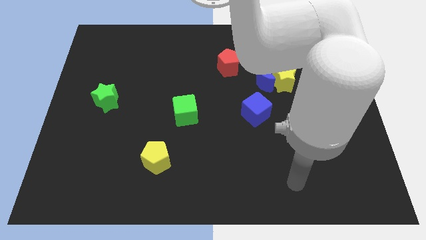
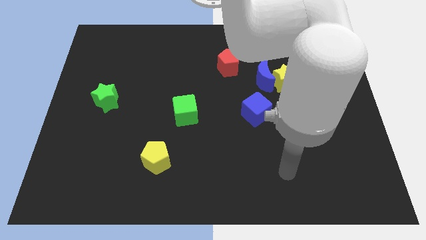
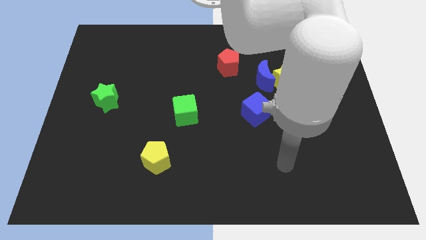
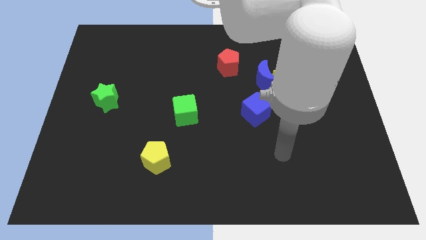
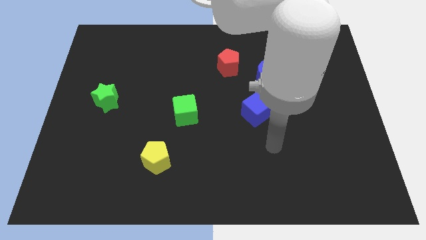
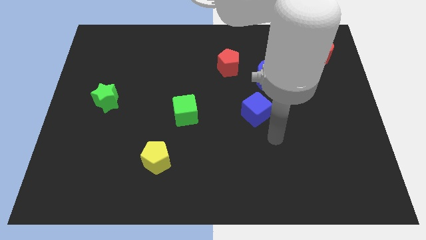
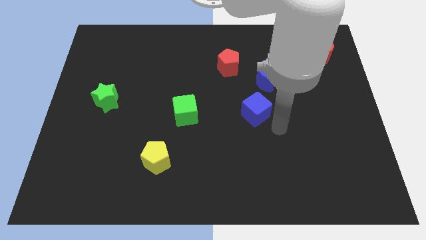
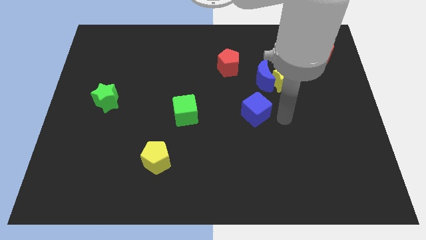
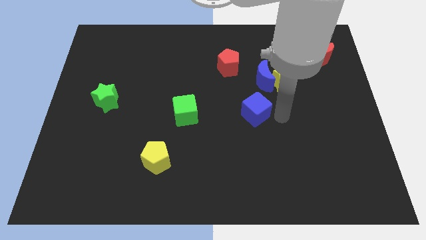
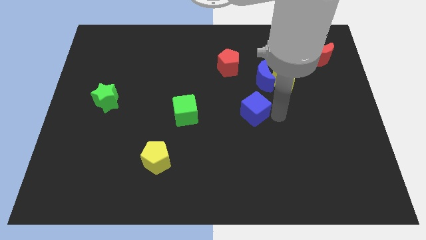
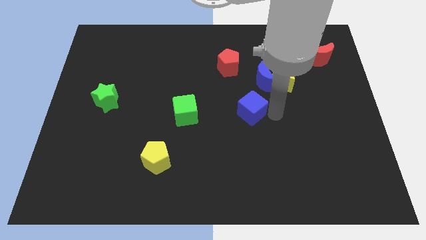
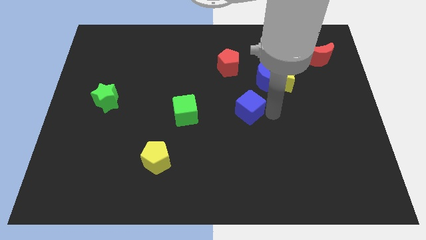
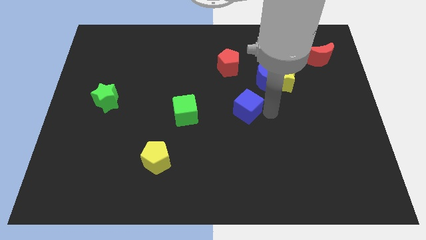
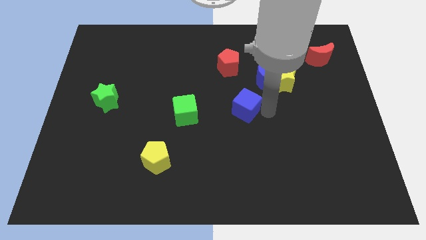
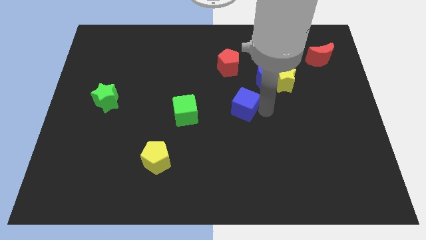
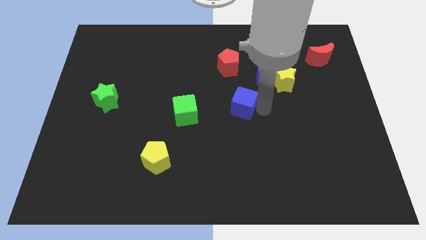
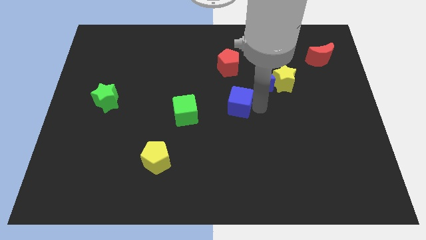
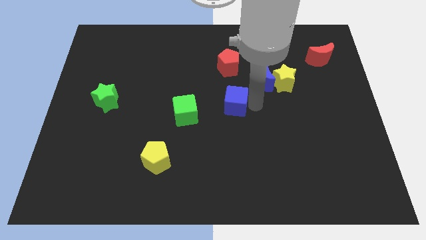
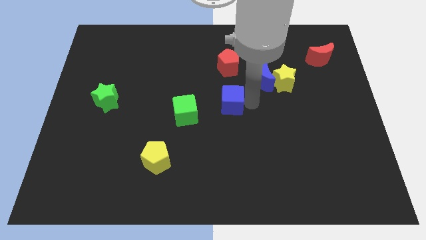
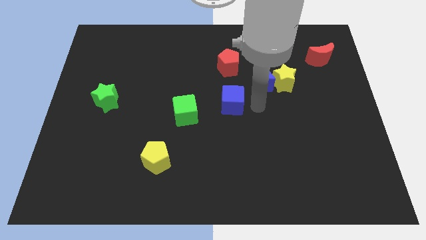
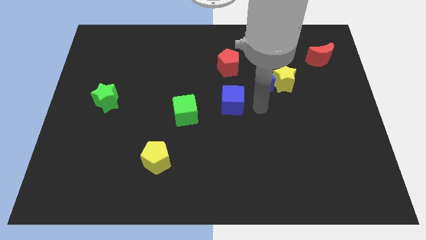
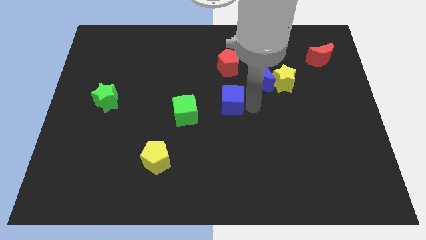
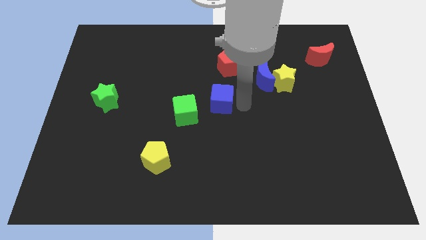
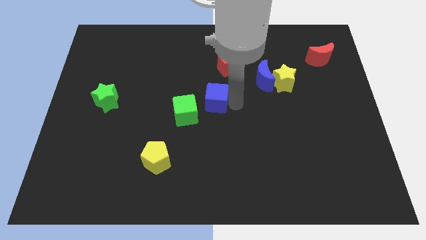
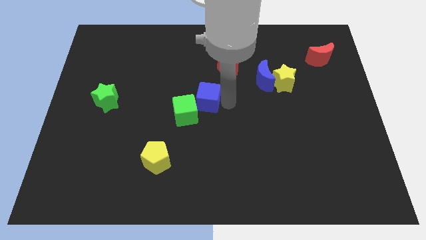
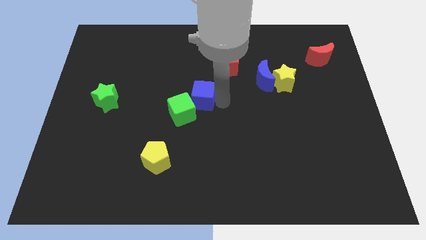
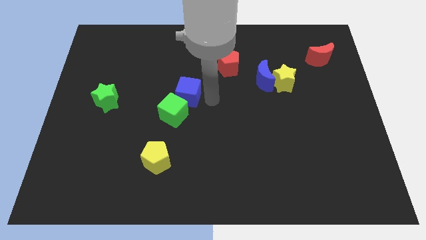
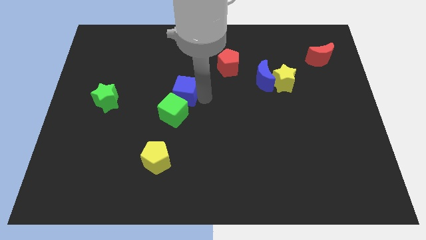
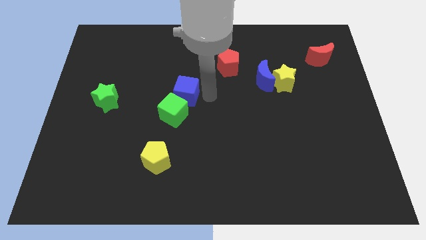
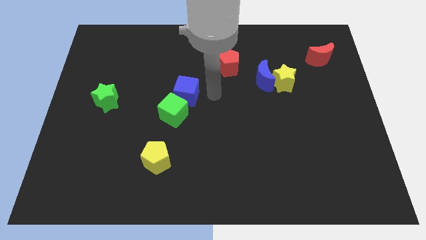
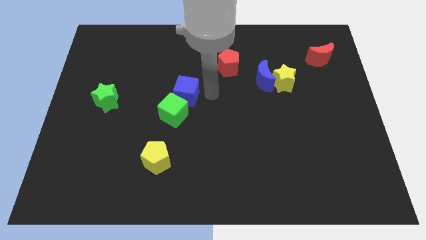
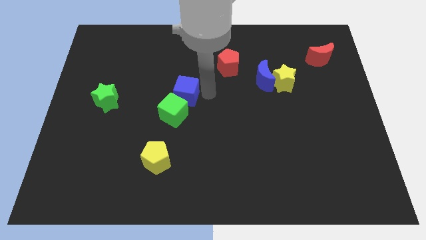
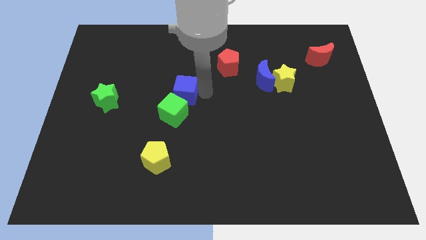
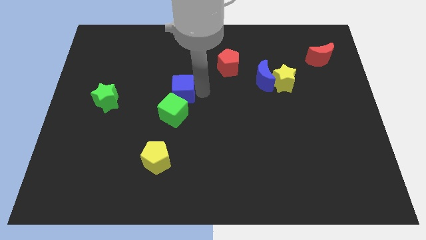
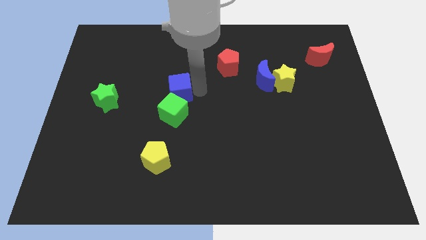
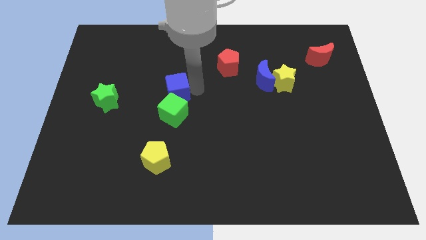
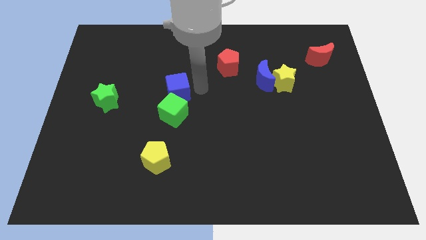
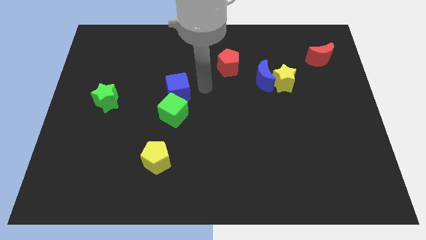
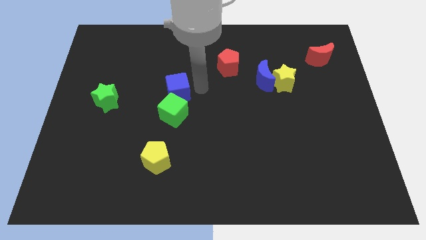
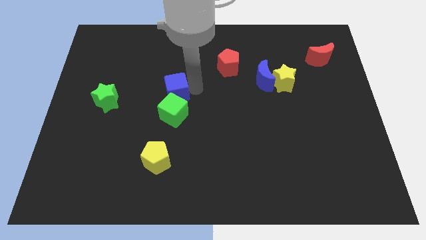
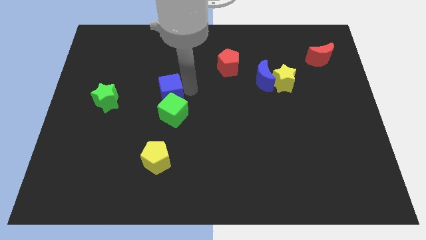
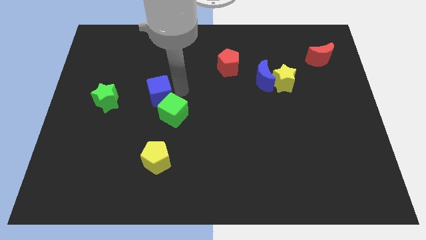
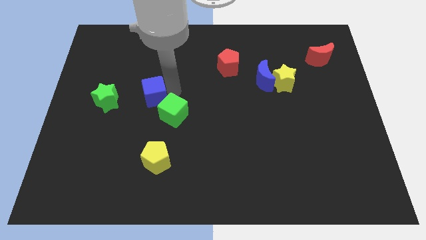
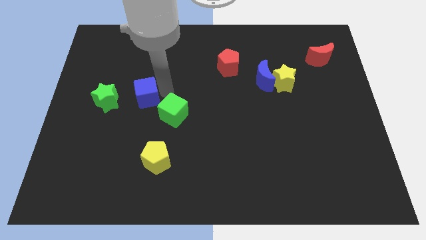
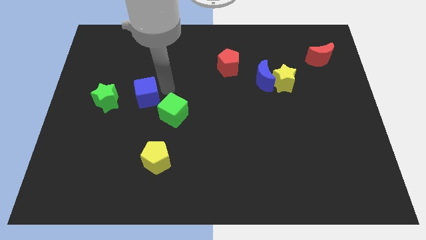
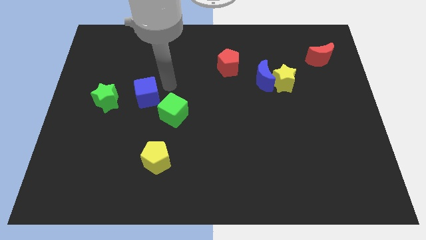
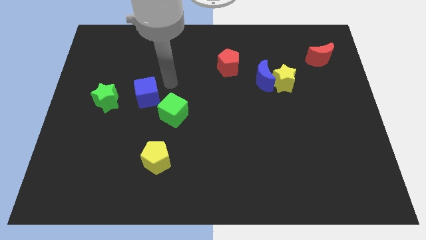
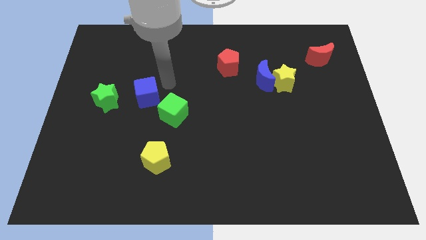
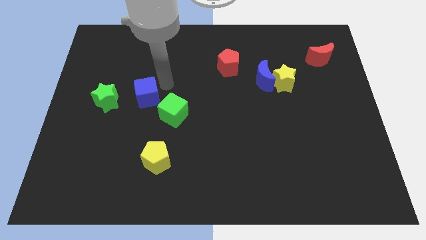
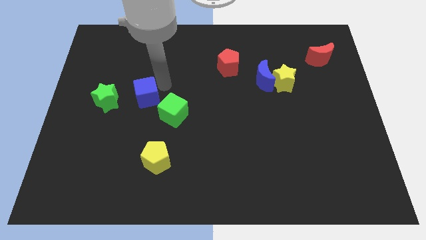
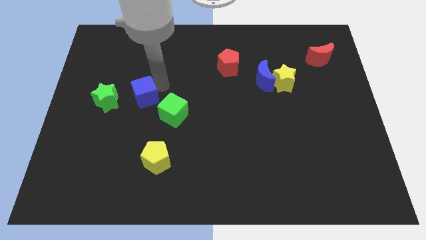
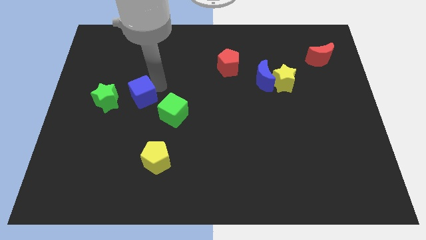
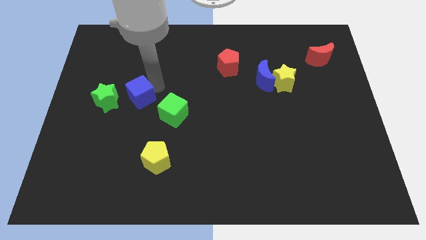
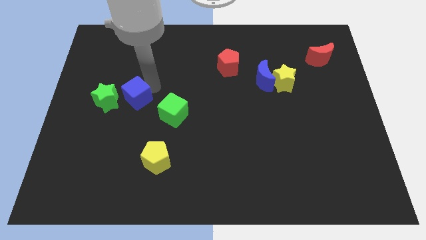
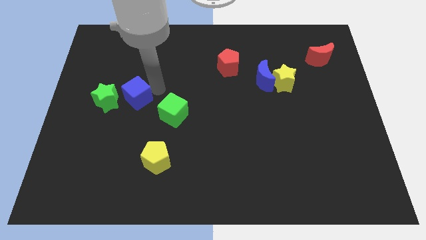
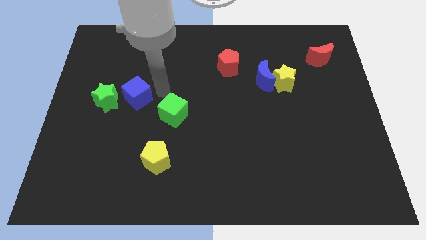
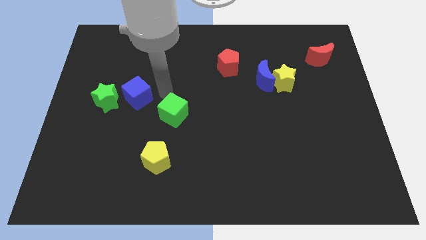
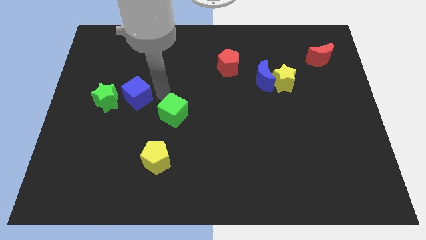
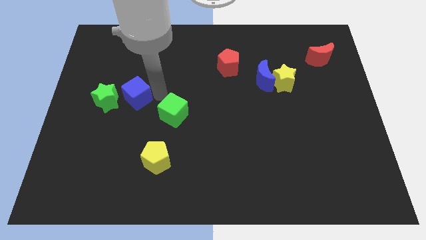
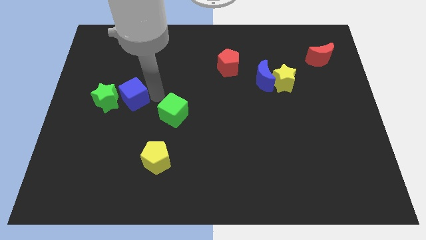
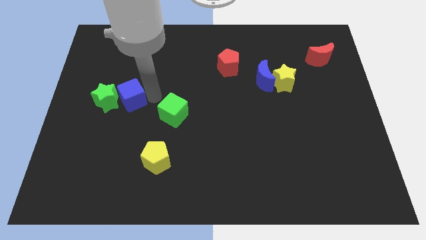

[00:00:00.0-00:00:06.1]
slide the blue cube towards the green star
